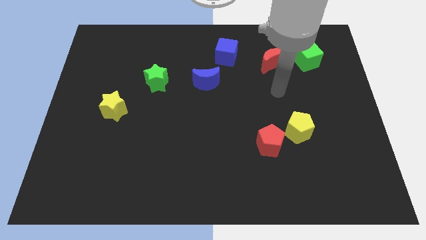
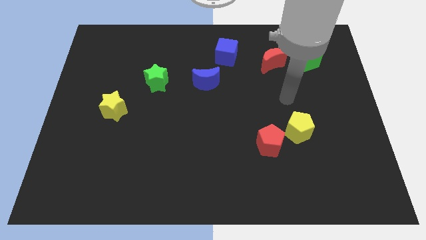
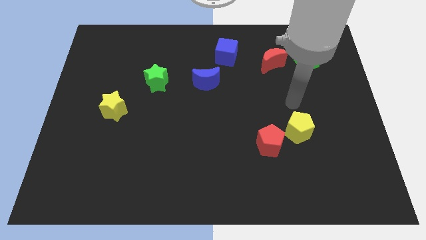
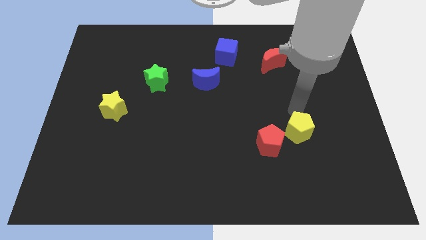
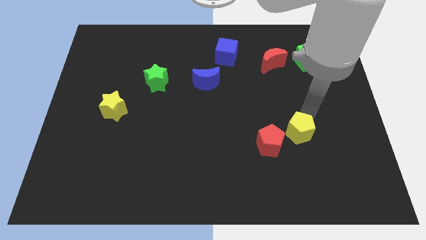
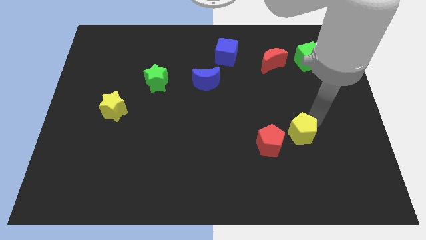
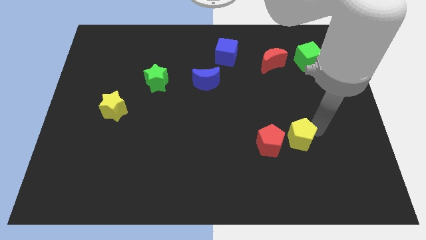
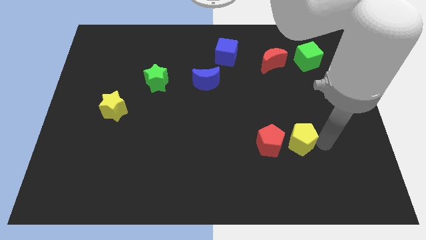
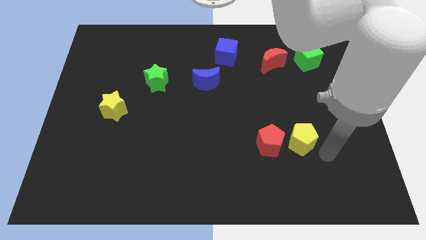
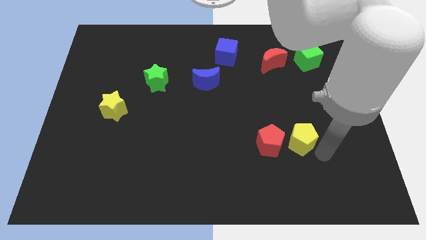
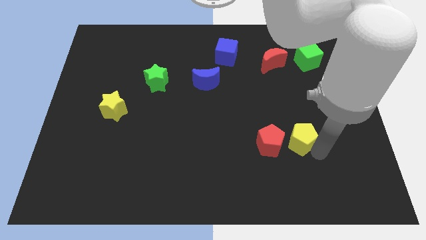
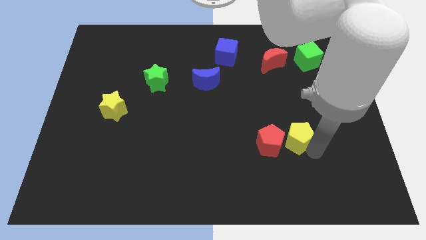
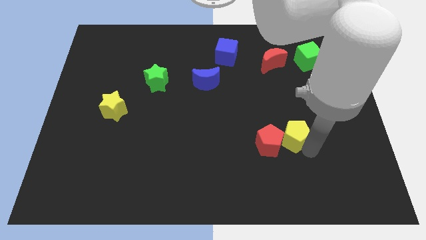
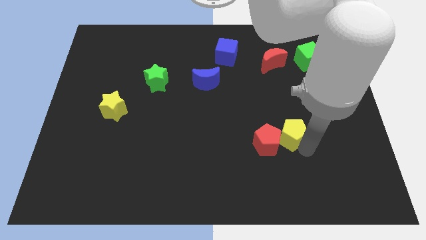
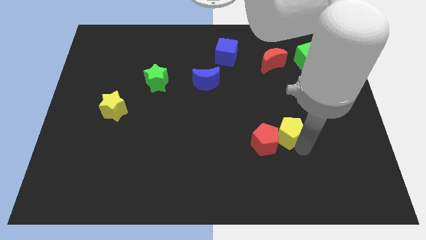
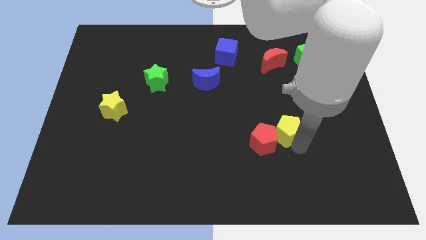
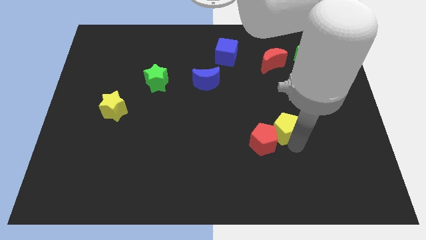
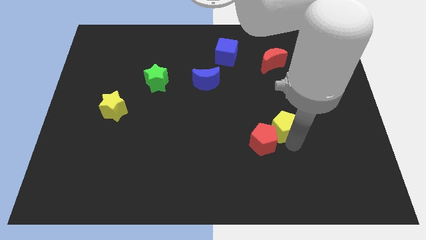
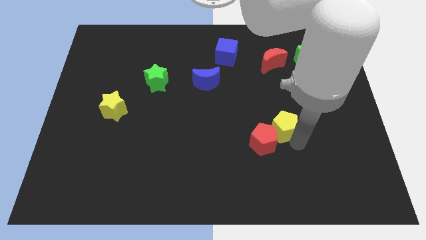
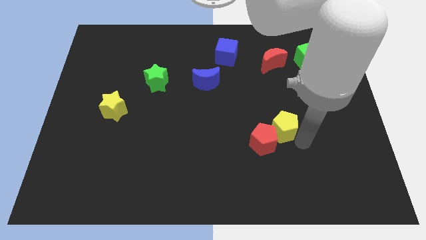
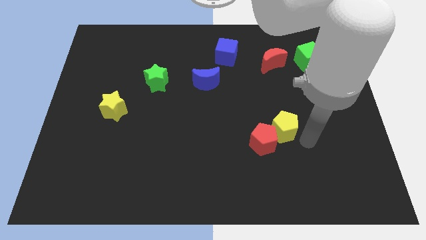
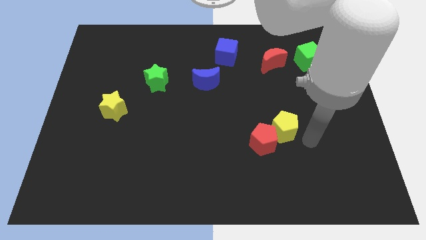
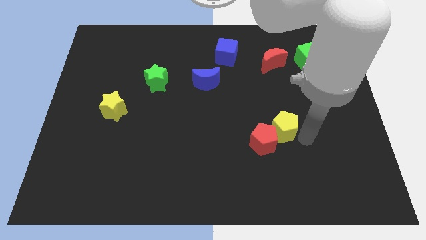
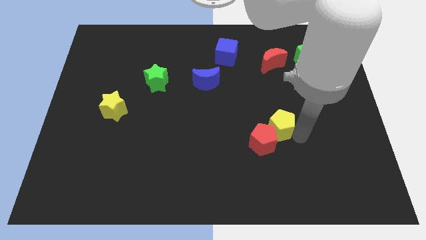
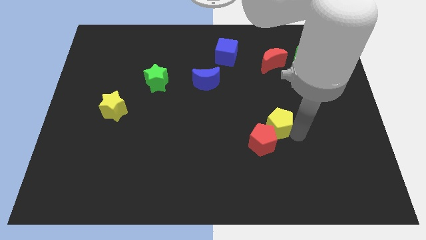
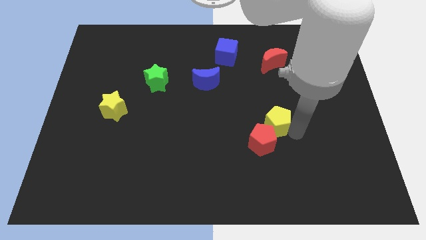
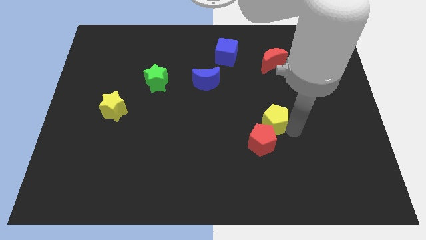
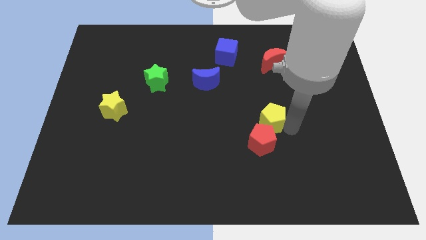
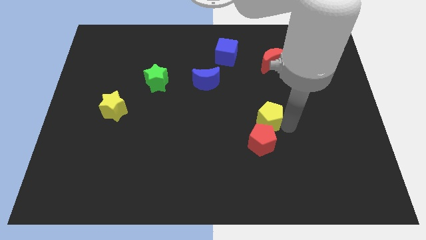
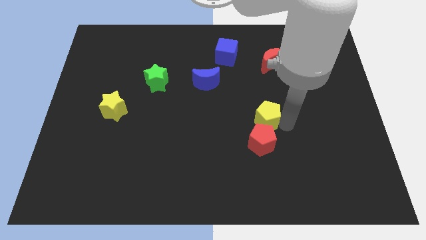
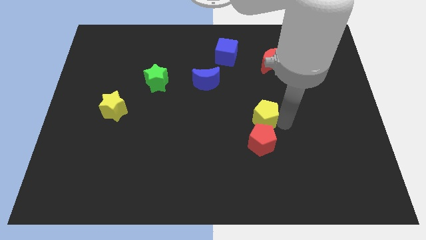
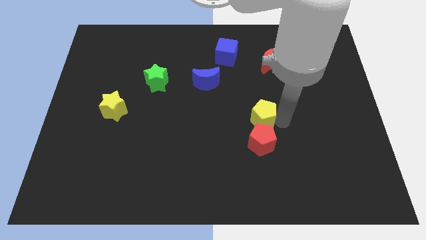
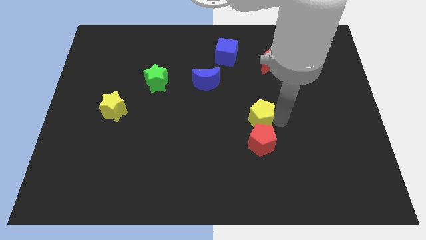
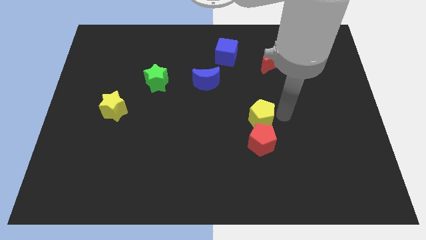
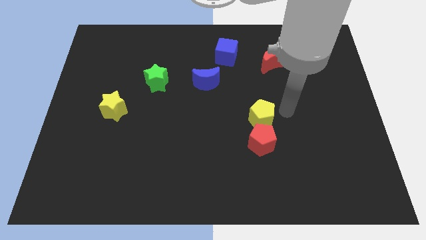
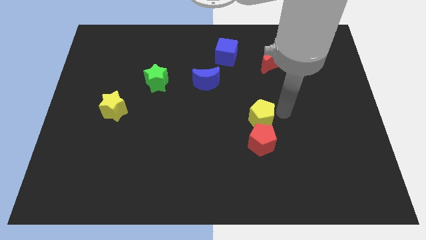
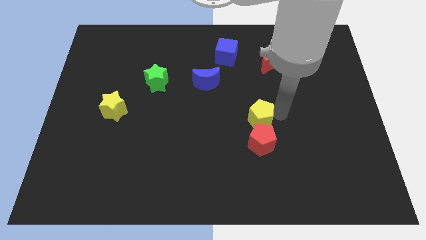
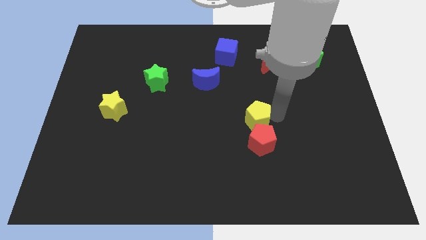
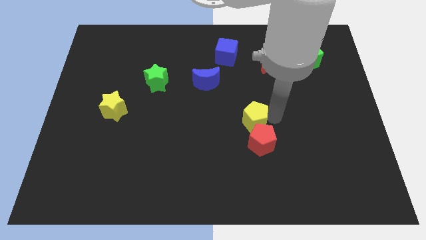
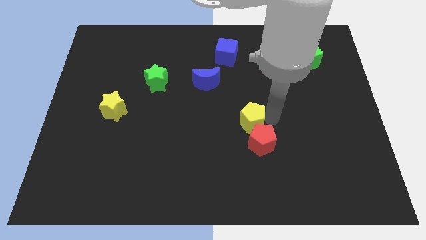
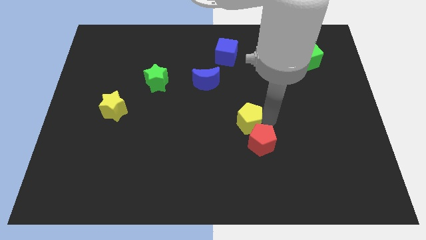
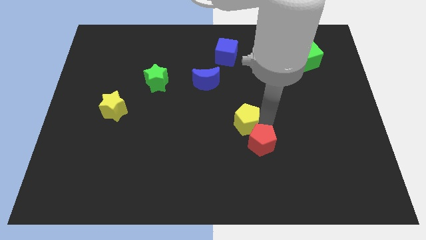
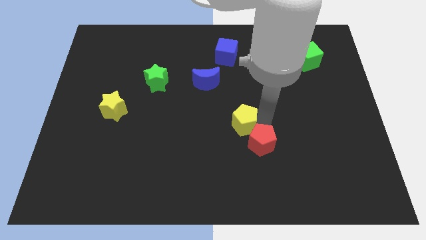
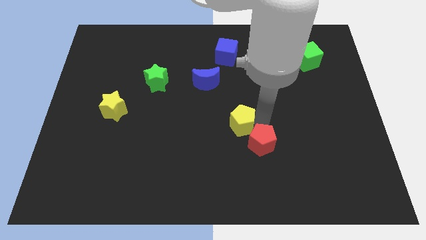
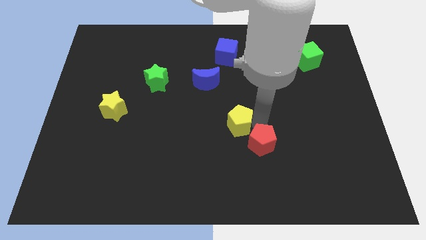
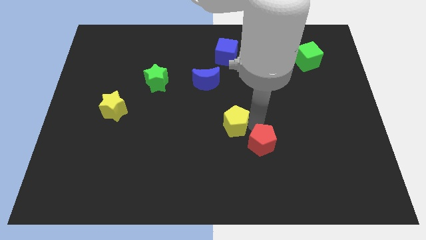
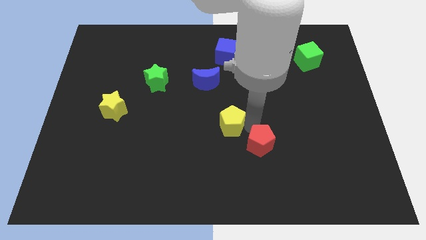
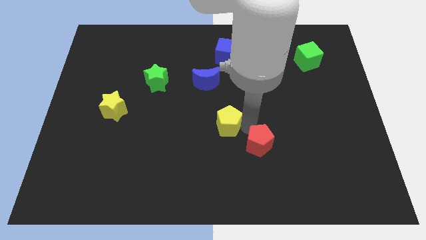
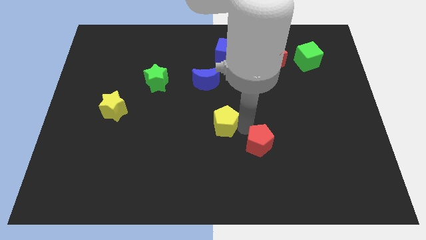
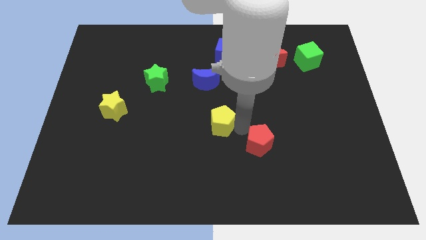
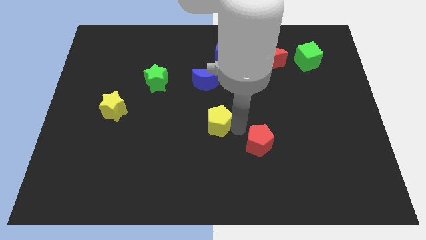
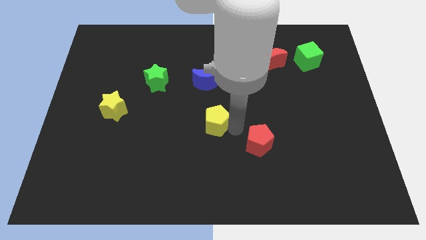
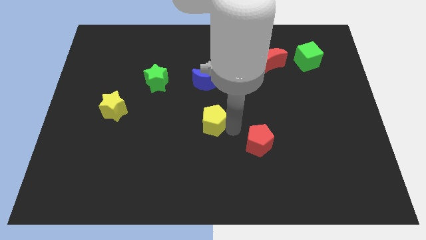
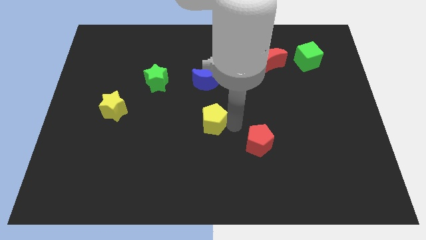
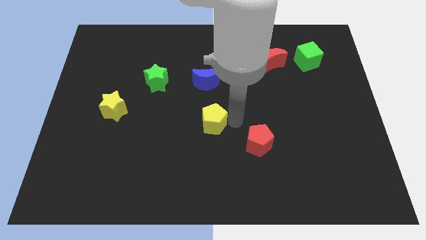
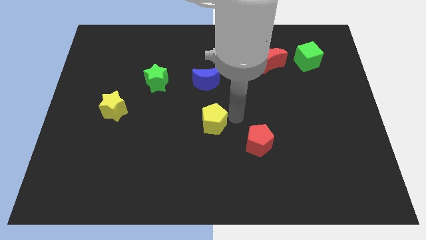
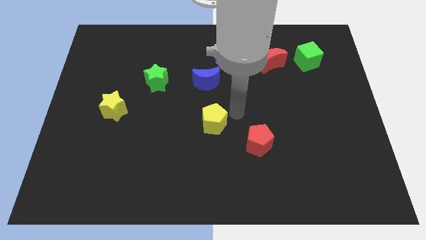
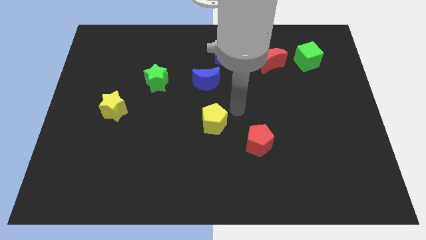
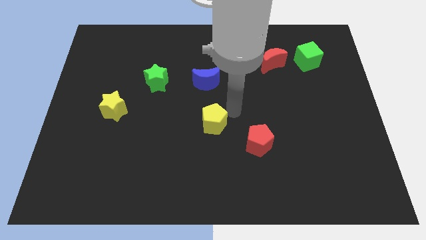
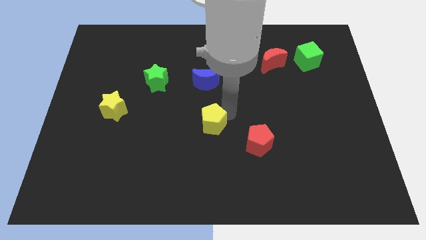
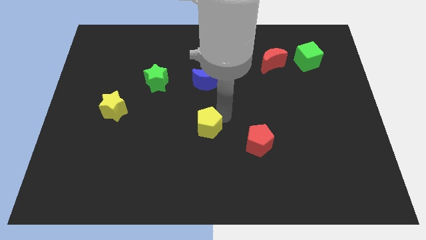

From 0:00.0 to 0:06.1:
move the yellow pentagon to the left

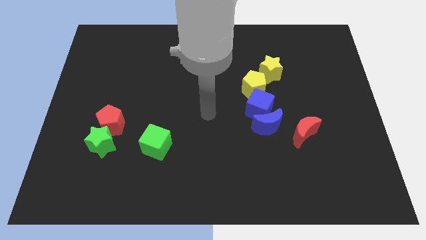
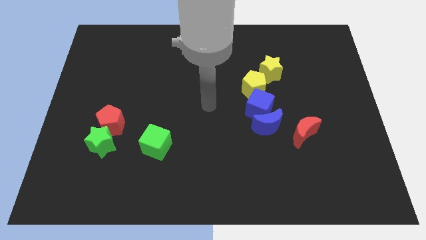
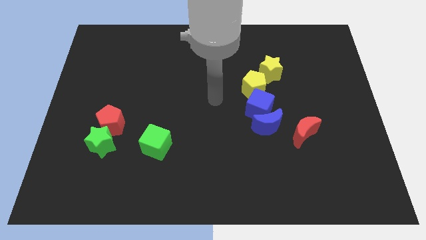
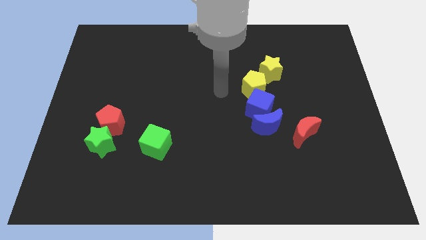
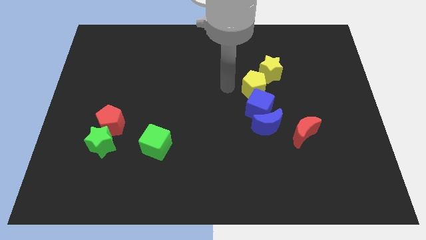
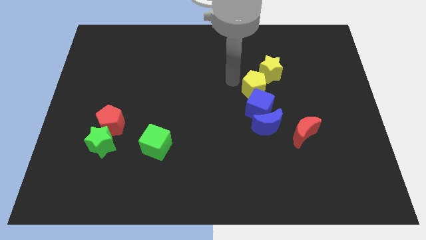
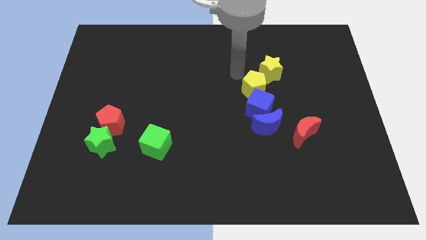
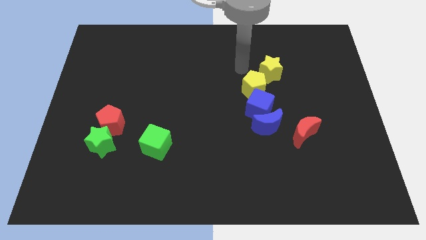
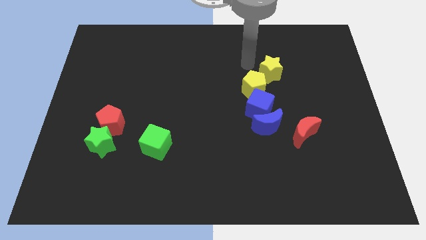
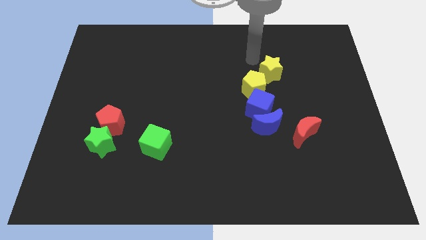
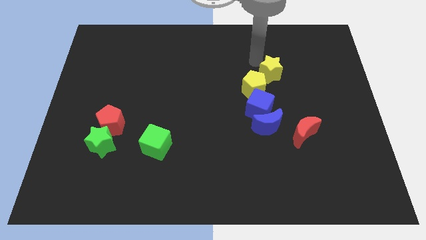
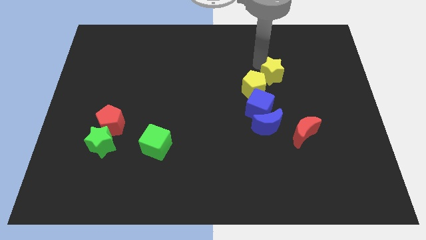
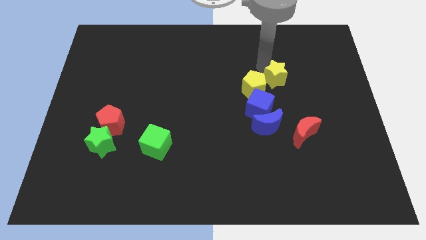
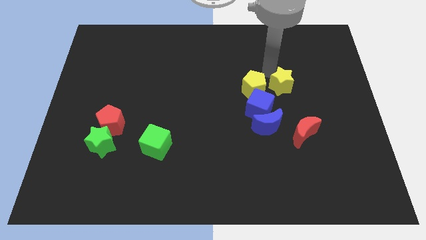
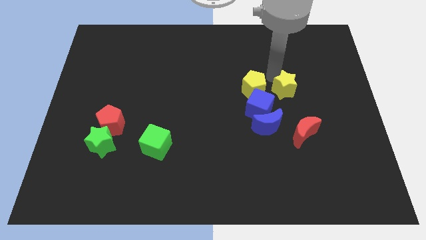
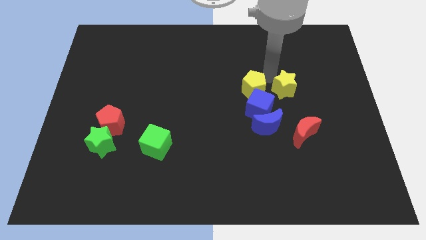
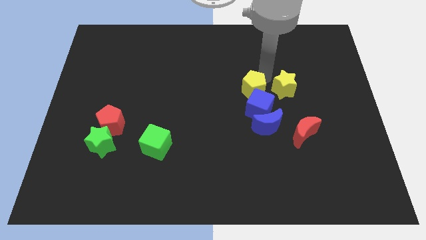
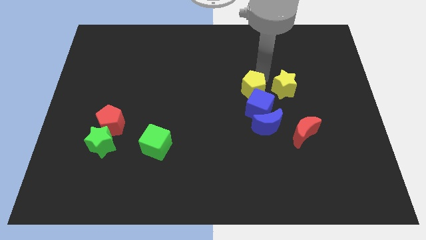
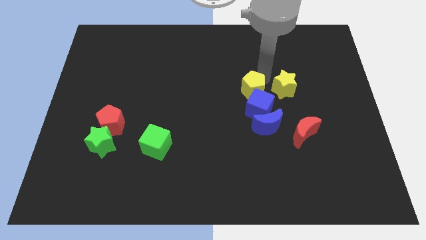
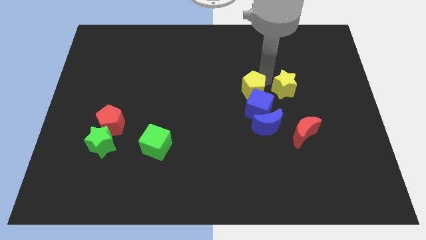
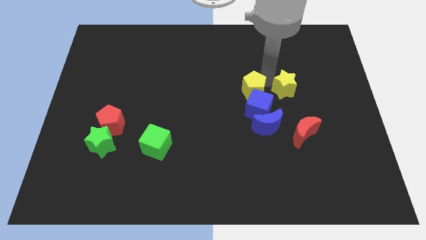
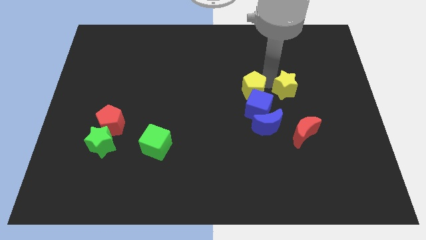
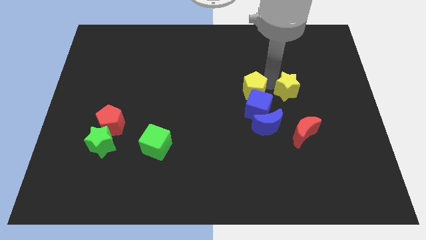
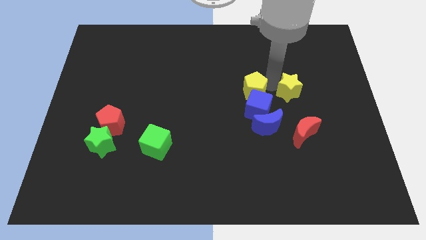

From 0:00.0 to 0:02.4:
move the yellow star downwards and right diagonally a little bit
